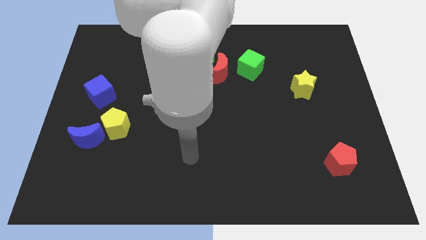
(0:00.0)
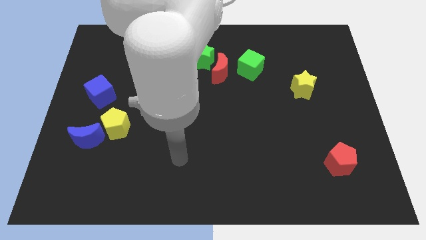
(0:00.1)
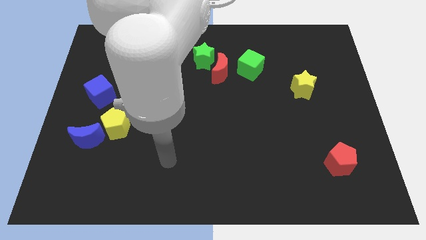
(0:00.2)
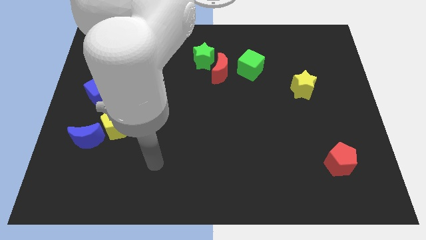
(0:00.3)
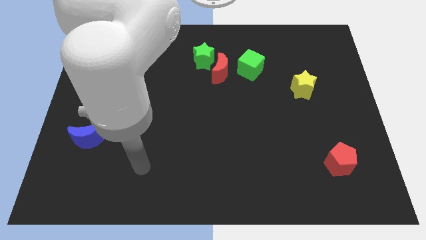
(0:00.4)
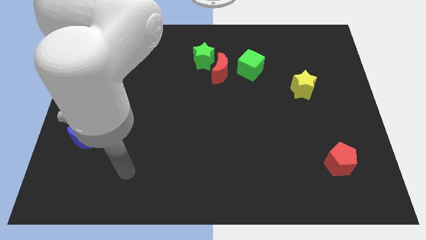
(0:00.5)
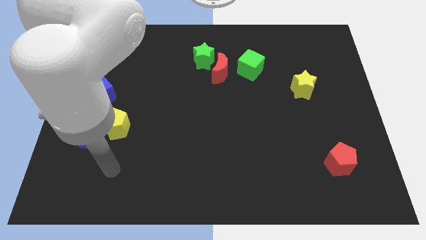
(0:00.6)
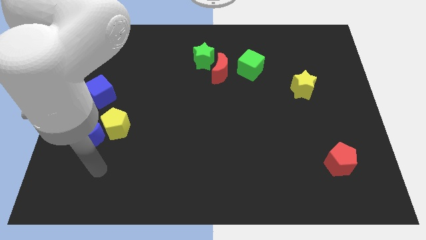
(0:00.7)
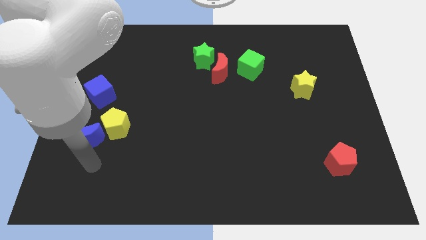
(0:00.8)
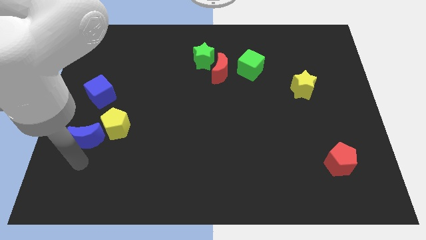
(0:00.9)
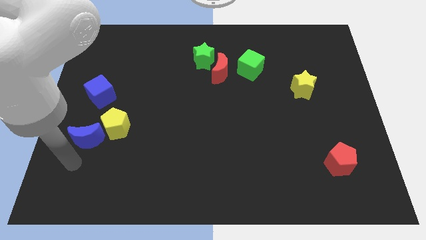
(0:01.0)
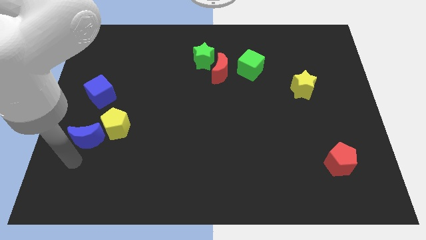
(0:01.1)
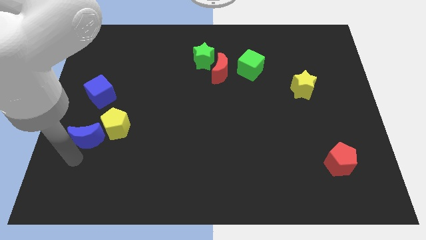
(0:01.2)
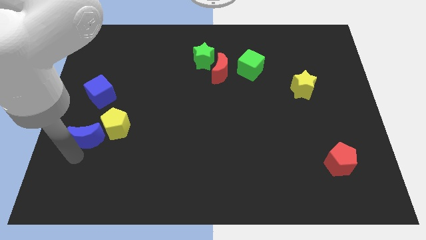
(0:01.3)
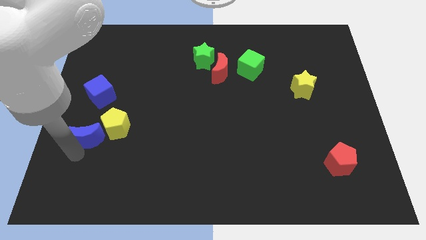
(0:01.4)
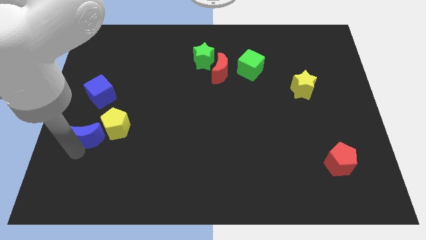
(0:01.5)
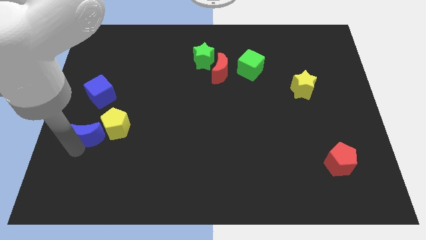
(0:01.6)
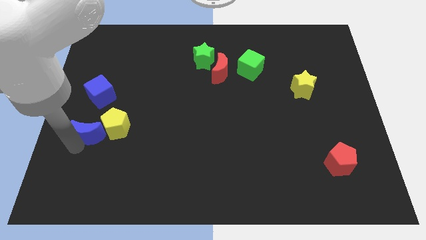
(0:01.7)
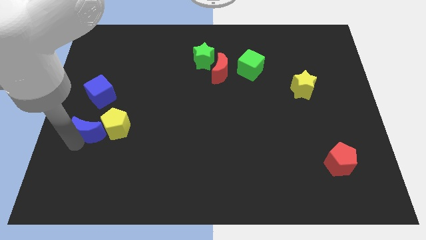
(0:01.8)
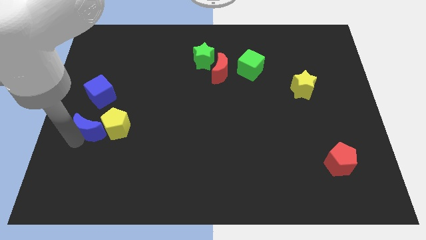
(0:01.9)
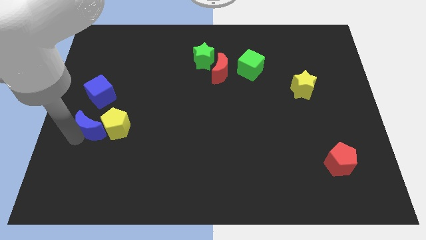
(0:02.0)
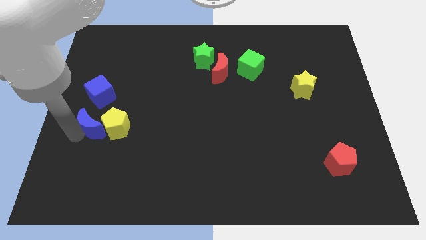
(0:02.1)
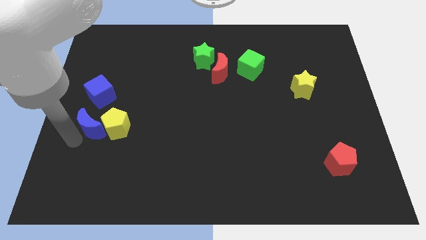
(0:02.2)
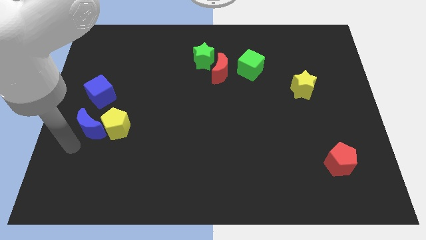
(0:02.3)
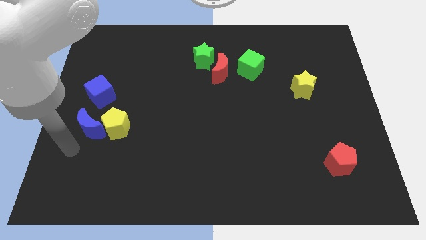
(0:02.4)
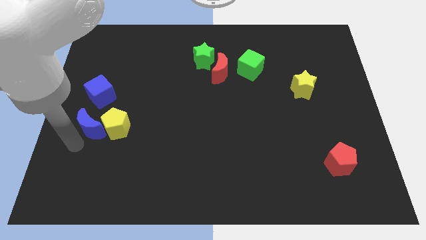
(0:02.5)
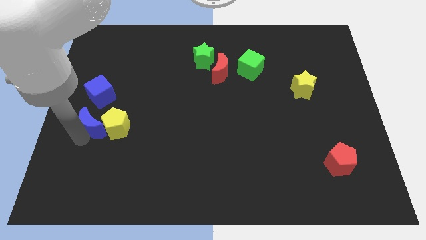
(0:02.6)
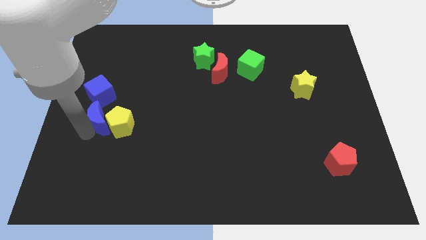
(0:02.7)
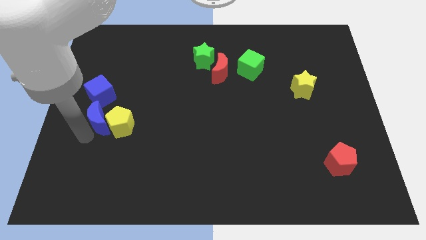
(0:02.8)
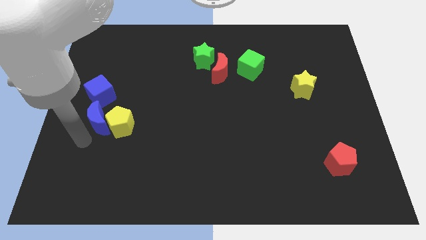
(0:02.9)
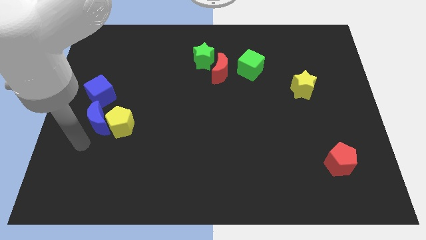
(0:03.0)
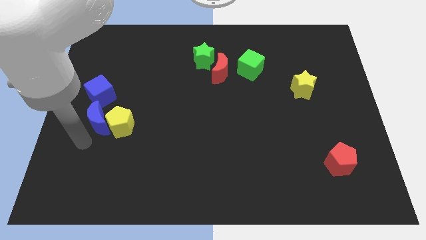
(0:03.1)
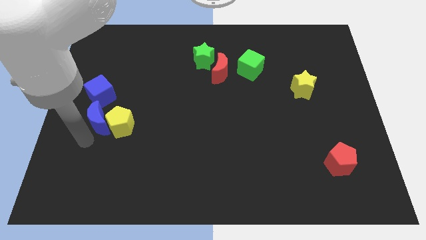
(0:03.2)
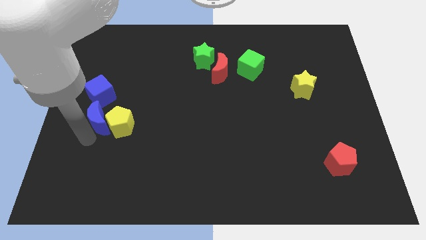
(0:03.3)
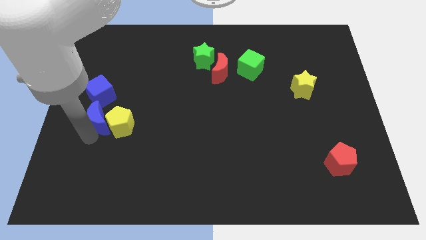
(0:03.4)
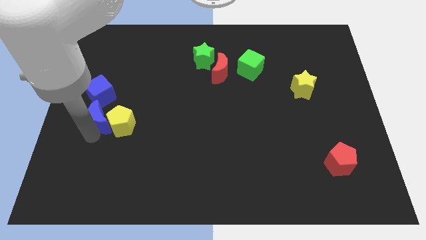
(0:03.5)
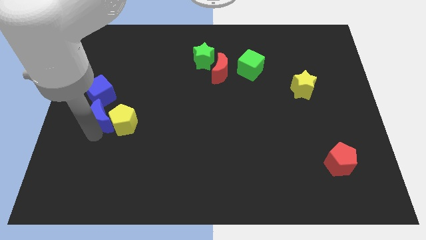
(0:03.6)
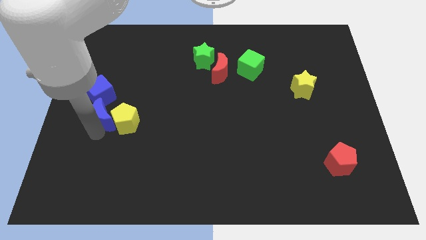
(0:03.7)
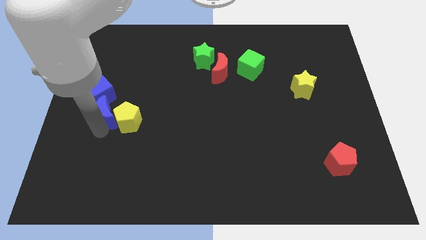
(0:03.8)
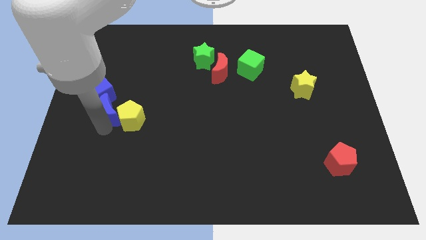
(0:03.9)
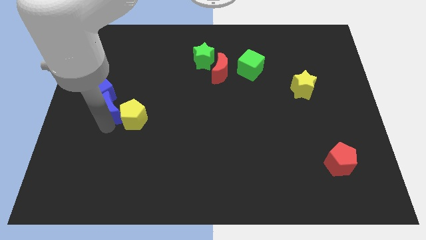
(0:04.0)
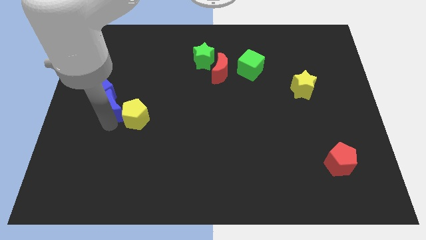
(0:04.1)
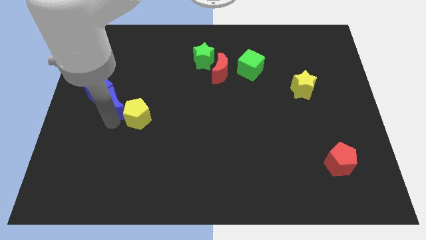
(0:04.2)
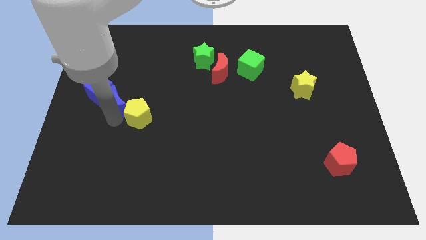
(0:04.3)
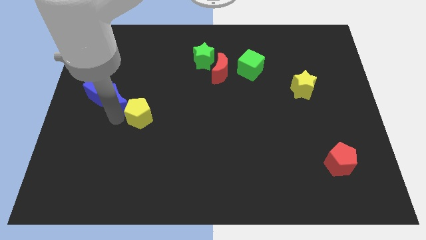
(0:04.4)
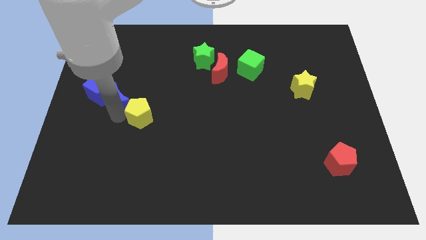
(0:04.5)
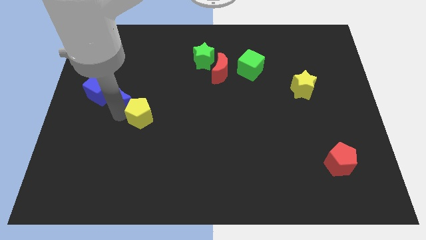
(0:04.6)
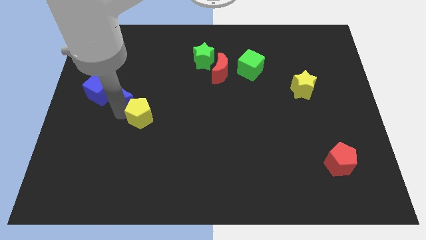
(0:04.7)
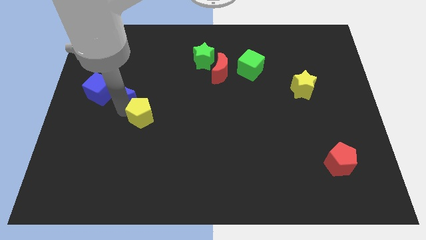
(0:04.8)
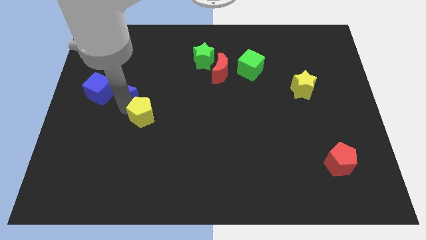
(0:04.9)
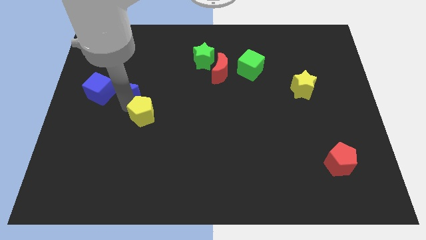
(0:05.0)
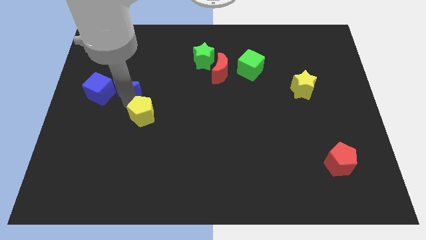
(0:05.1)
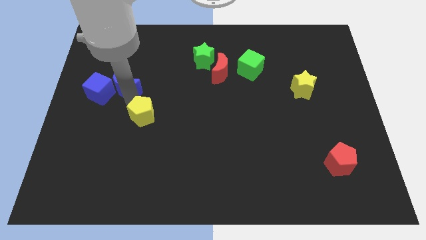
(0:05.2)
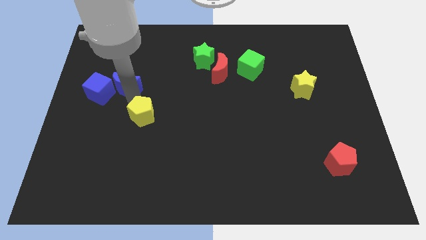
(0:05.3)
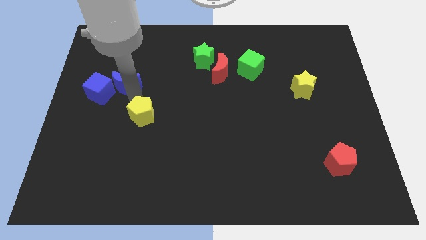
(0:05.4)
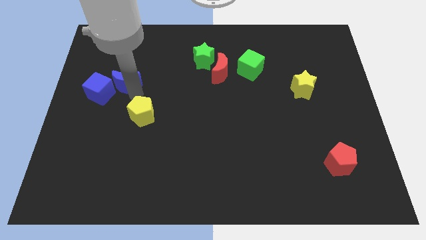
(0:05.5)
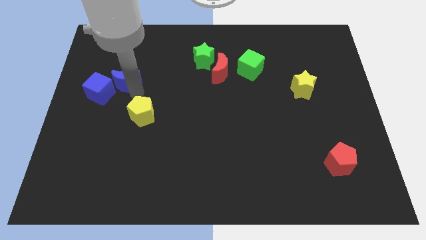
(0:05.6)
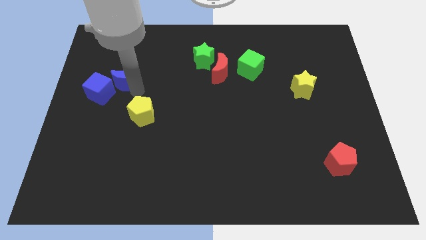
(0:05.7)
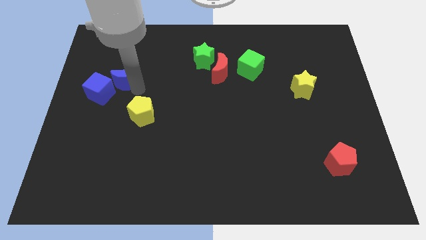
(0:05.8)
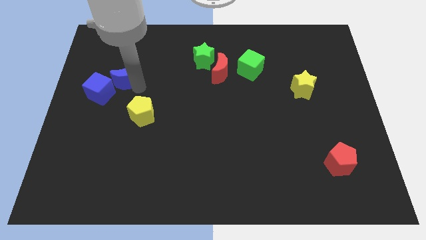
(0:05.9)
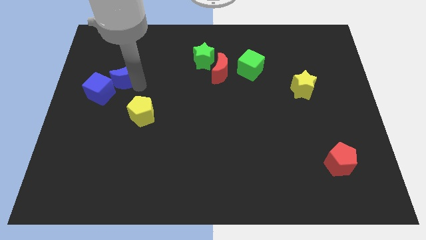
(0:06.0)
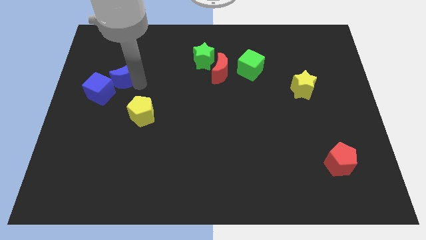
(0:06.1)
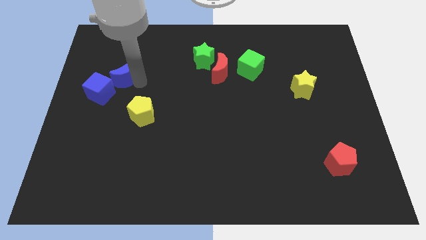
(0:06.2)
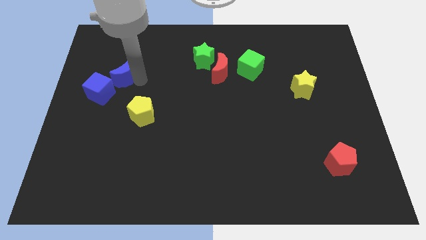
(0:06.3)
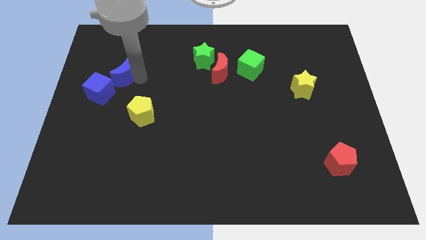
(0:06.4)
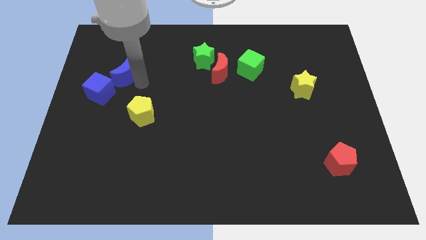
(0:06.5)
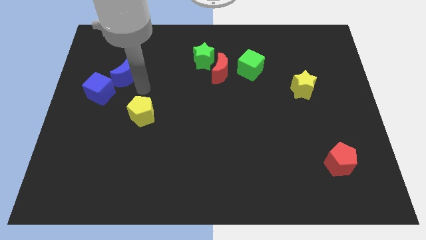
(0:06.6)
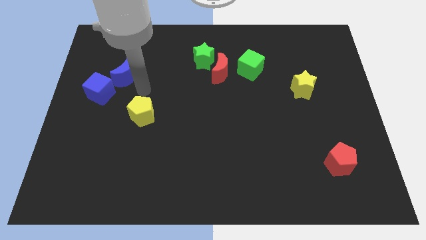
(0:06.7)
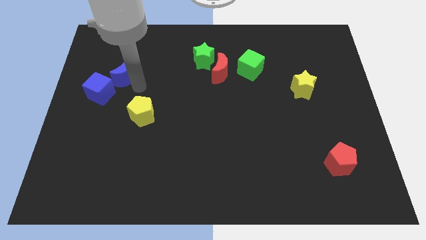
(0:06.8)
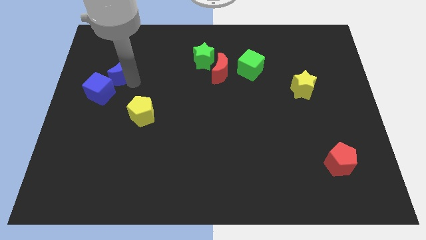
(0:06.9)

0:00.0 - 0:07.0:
push the blue moon to the top of the blue cube
